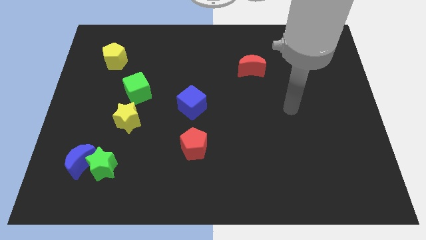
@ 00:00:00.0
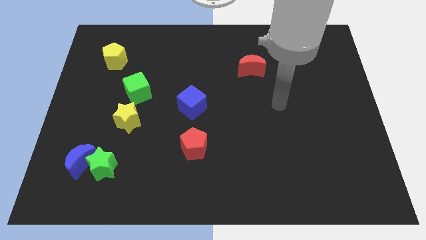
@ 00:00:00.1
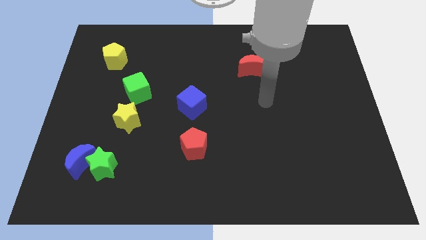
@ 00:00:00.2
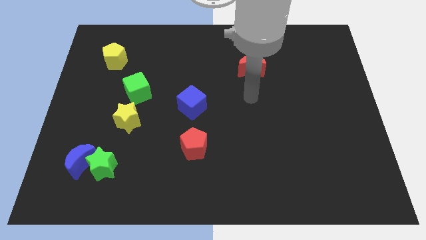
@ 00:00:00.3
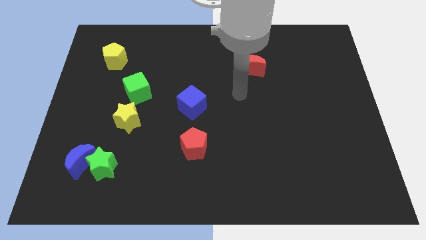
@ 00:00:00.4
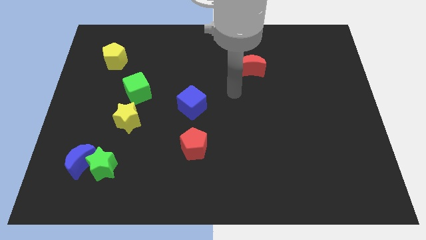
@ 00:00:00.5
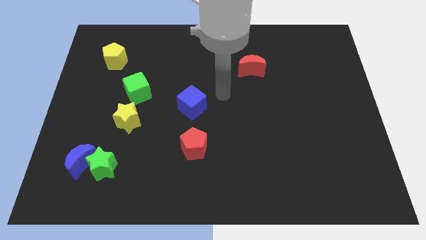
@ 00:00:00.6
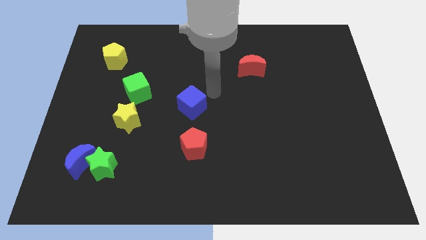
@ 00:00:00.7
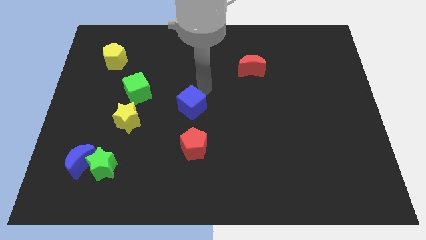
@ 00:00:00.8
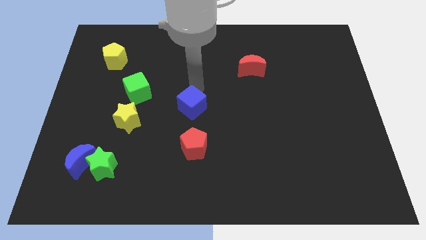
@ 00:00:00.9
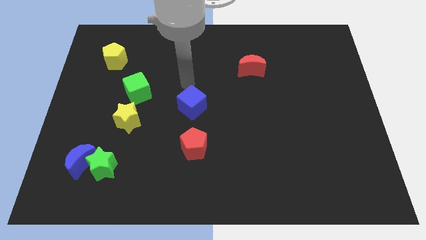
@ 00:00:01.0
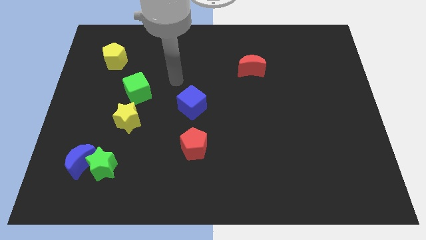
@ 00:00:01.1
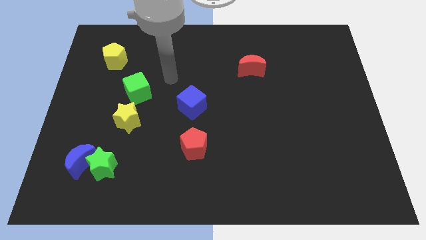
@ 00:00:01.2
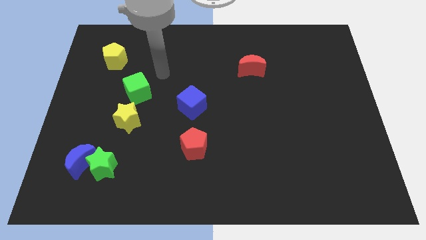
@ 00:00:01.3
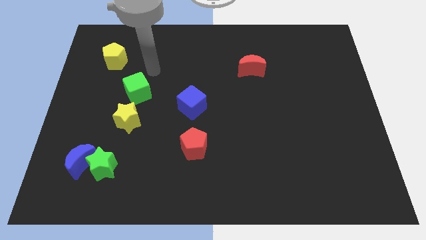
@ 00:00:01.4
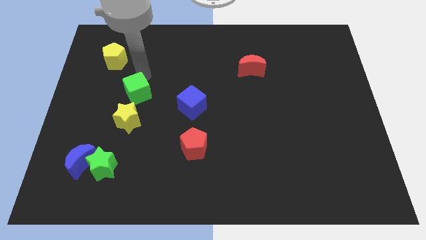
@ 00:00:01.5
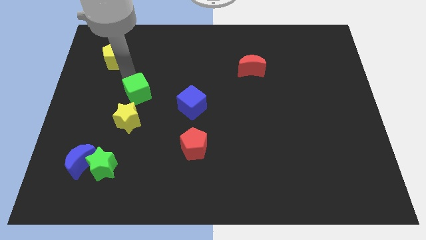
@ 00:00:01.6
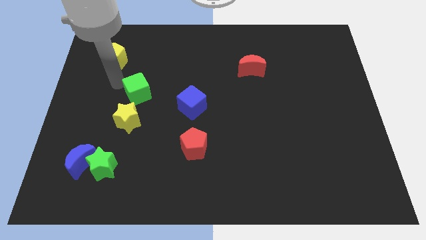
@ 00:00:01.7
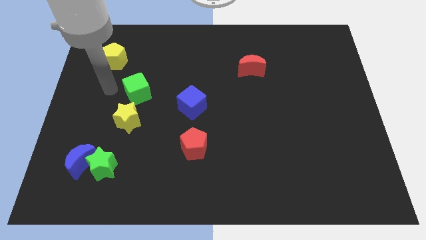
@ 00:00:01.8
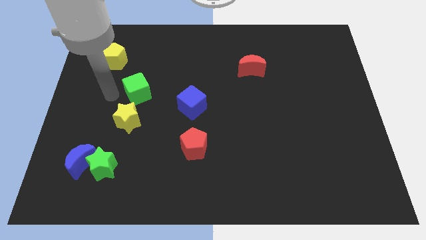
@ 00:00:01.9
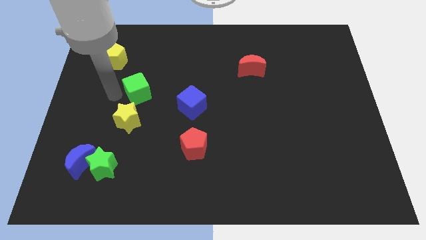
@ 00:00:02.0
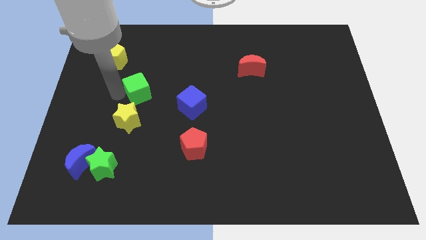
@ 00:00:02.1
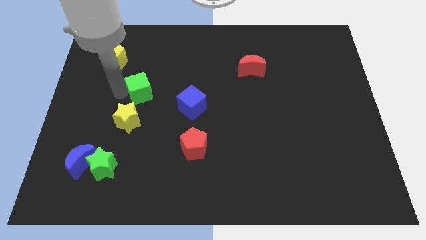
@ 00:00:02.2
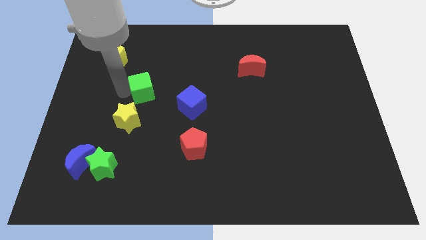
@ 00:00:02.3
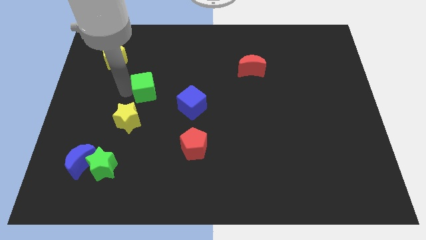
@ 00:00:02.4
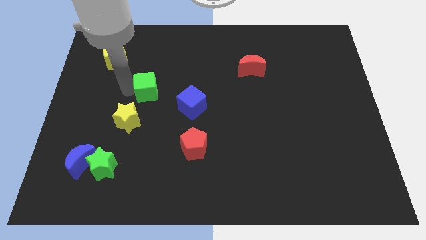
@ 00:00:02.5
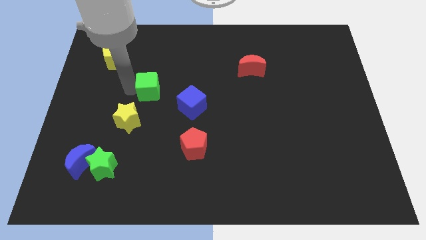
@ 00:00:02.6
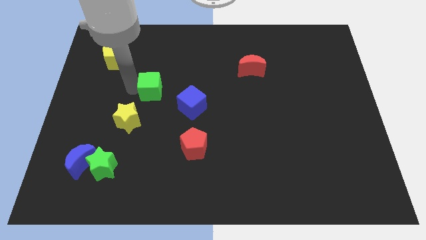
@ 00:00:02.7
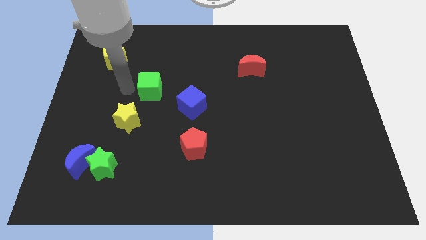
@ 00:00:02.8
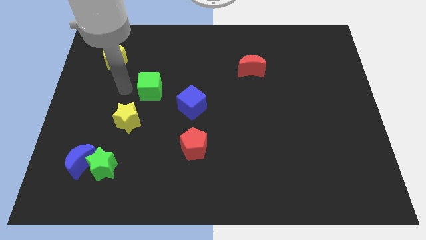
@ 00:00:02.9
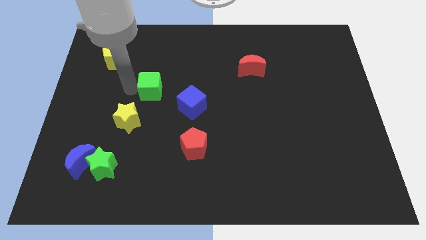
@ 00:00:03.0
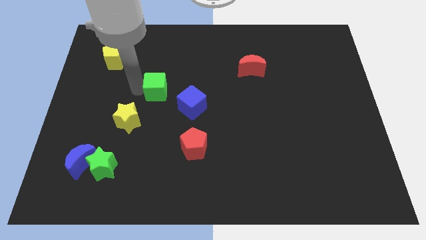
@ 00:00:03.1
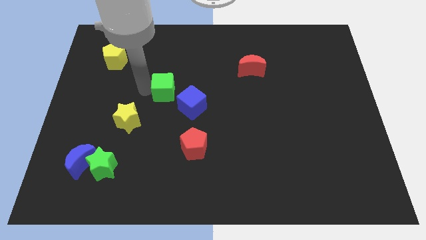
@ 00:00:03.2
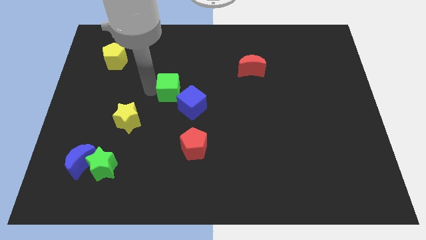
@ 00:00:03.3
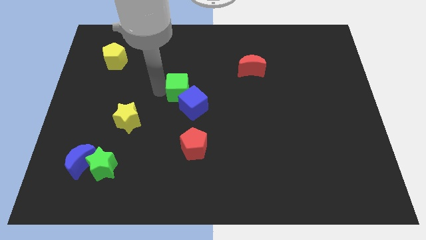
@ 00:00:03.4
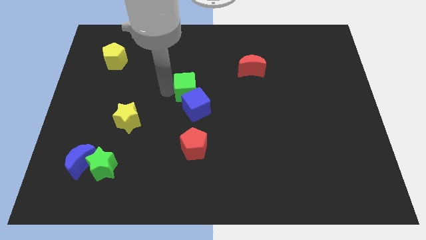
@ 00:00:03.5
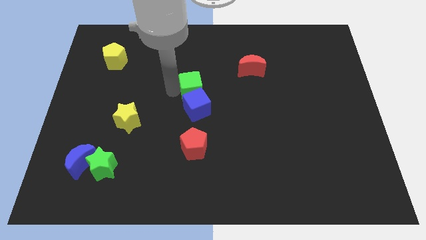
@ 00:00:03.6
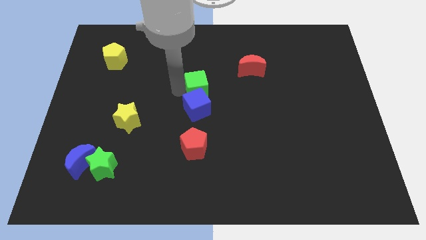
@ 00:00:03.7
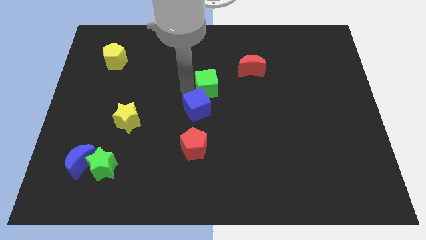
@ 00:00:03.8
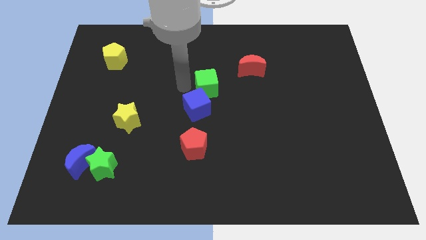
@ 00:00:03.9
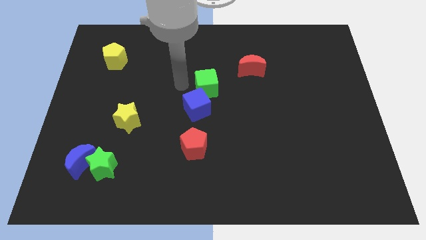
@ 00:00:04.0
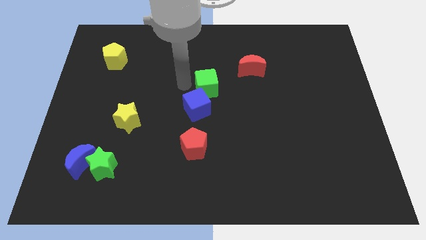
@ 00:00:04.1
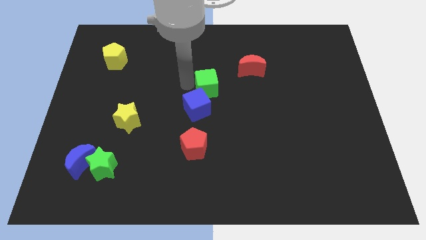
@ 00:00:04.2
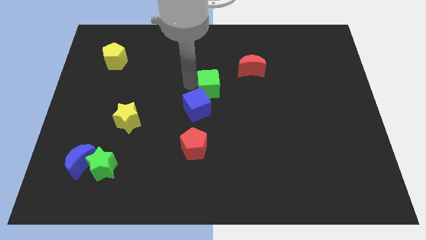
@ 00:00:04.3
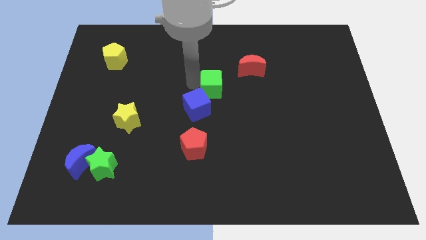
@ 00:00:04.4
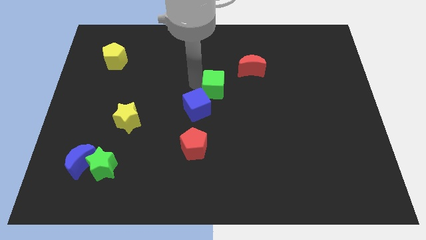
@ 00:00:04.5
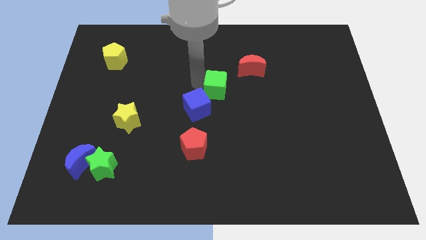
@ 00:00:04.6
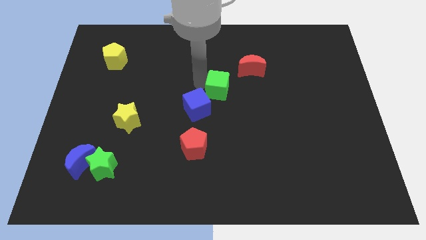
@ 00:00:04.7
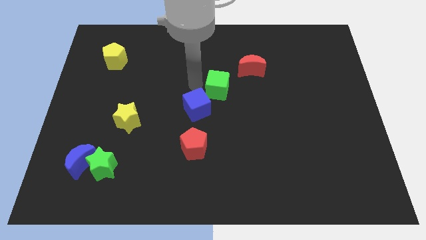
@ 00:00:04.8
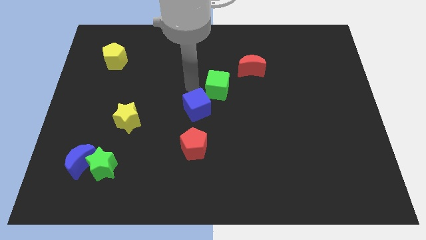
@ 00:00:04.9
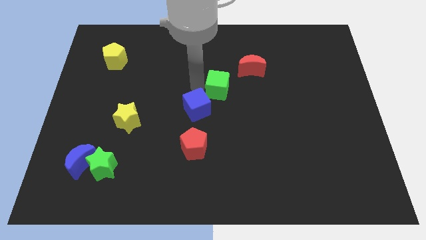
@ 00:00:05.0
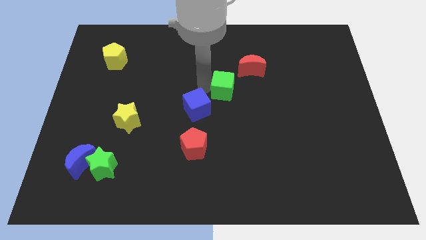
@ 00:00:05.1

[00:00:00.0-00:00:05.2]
move the green cube to the right

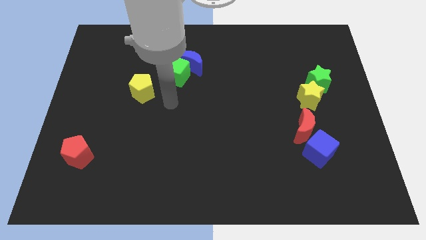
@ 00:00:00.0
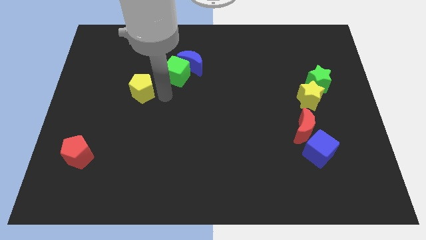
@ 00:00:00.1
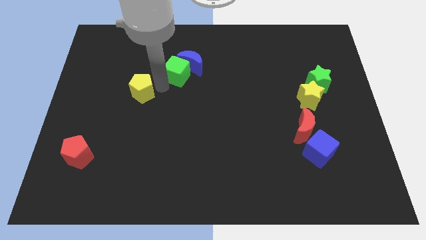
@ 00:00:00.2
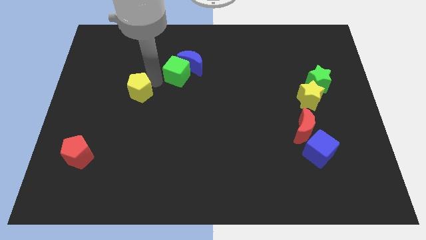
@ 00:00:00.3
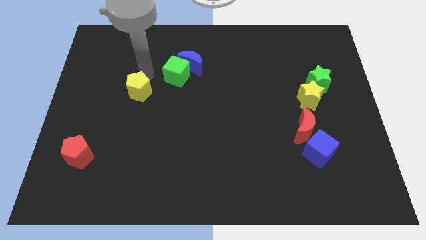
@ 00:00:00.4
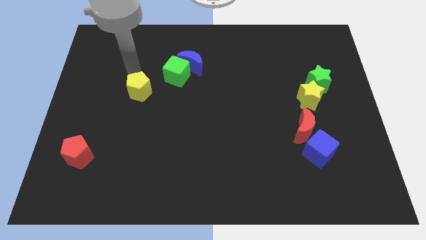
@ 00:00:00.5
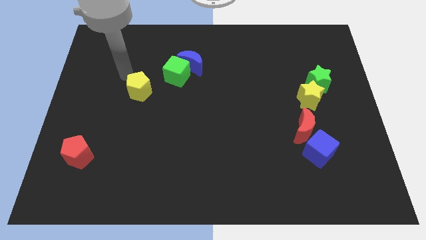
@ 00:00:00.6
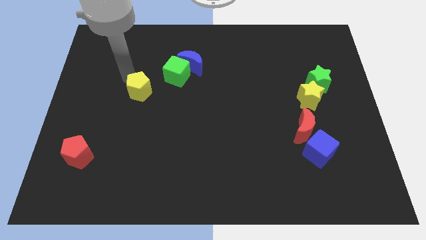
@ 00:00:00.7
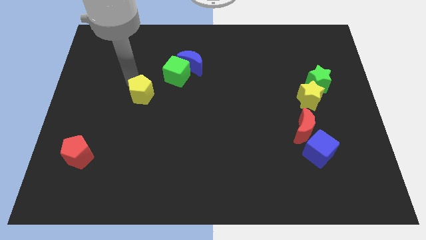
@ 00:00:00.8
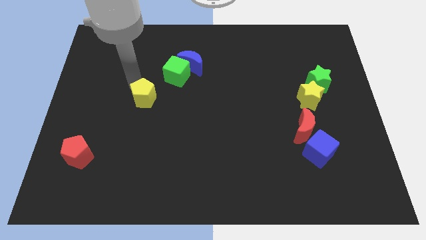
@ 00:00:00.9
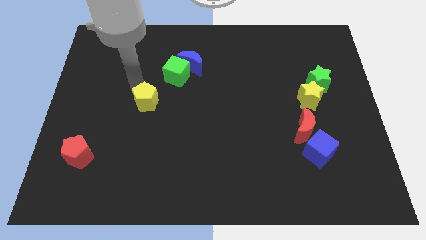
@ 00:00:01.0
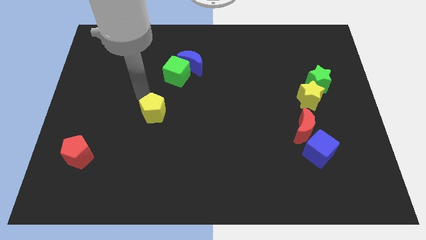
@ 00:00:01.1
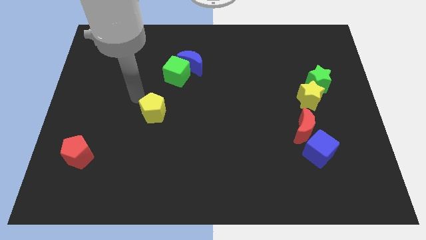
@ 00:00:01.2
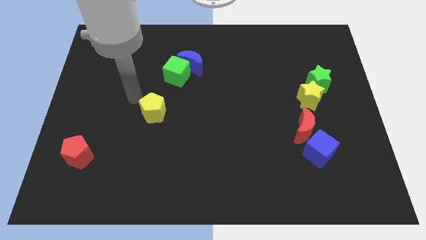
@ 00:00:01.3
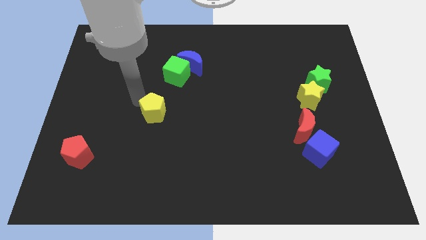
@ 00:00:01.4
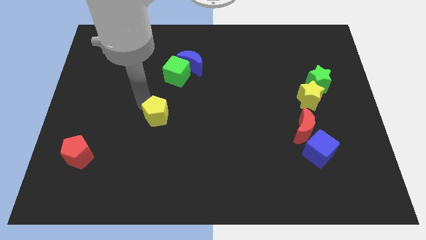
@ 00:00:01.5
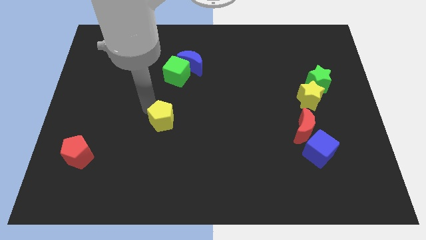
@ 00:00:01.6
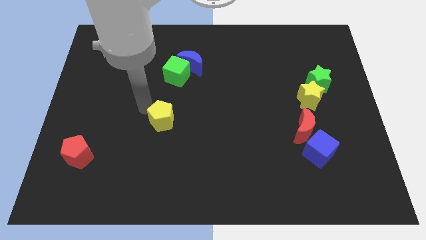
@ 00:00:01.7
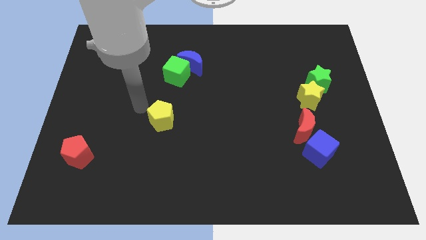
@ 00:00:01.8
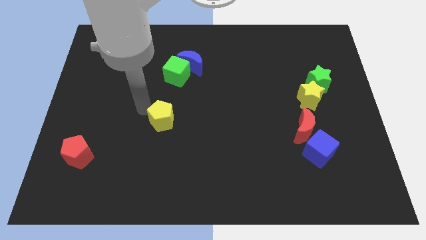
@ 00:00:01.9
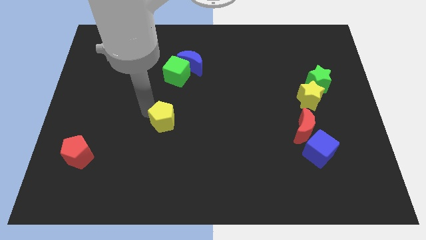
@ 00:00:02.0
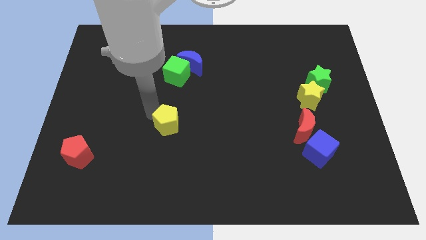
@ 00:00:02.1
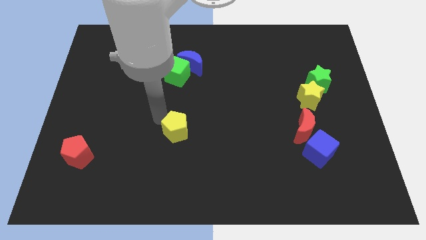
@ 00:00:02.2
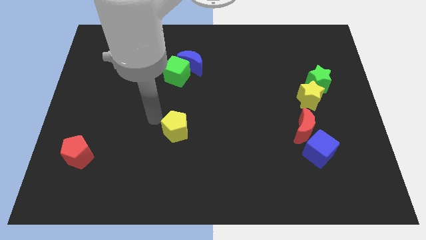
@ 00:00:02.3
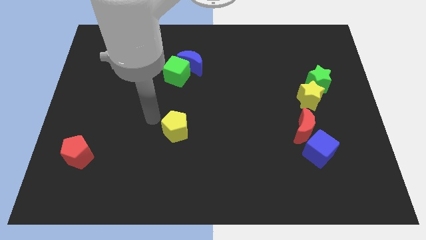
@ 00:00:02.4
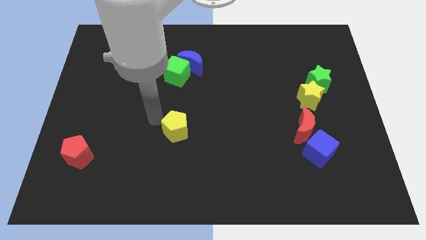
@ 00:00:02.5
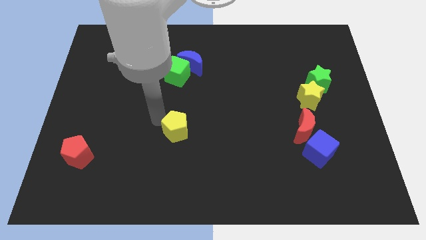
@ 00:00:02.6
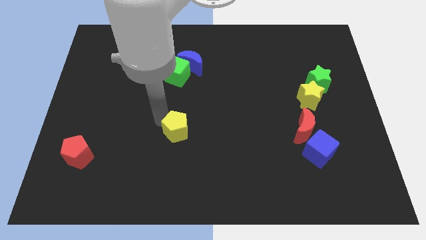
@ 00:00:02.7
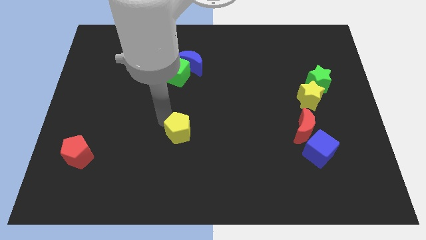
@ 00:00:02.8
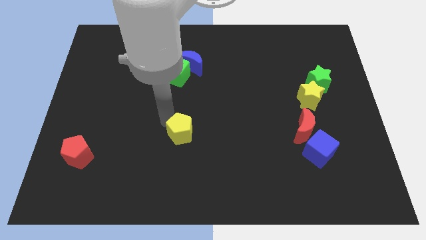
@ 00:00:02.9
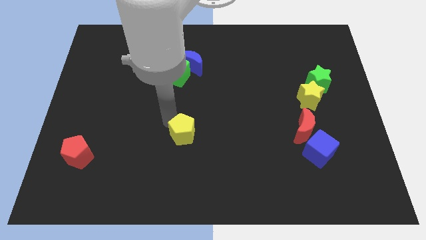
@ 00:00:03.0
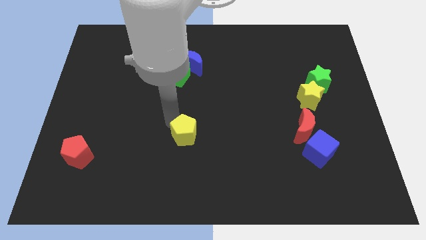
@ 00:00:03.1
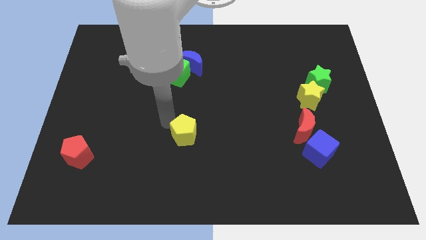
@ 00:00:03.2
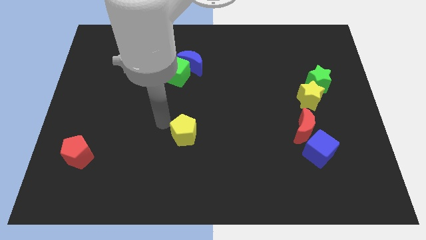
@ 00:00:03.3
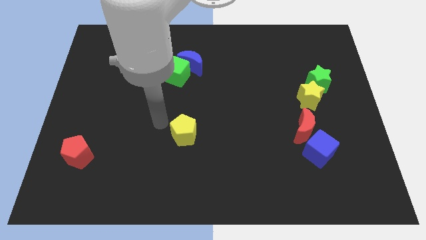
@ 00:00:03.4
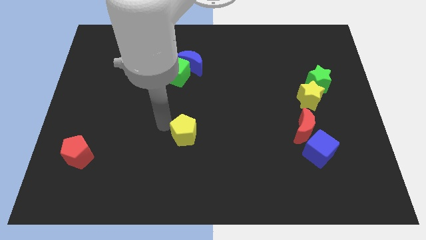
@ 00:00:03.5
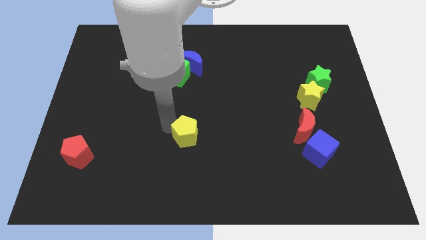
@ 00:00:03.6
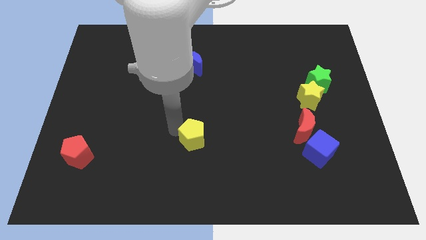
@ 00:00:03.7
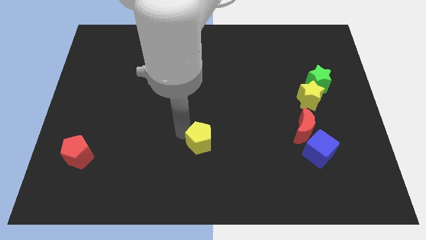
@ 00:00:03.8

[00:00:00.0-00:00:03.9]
move the yellow pentagon down and then to the right
